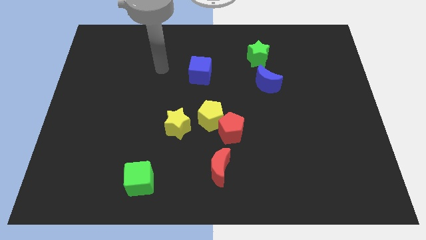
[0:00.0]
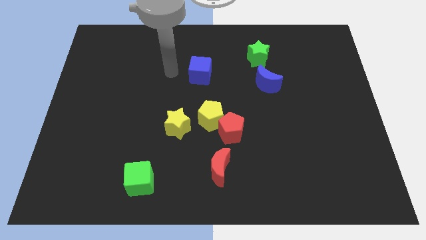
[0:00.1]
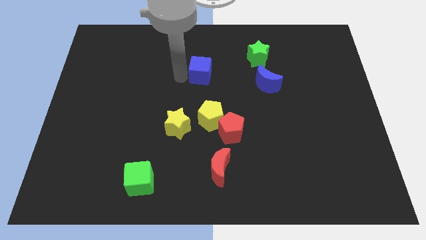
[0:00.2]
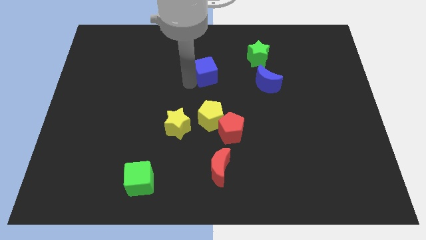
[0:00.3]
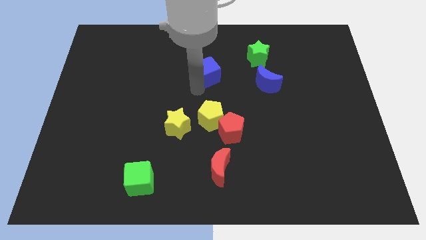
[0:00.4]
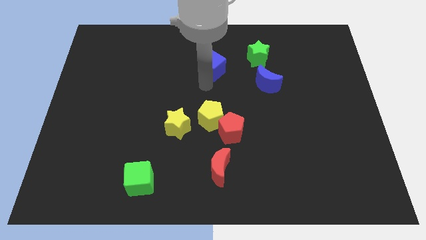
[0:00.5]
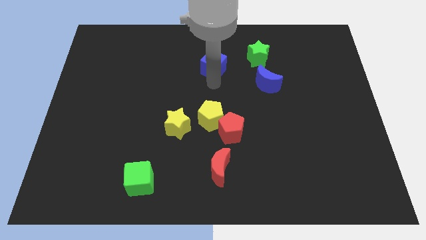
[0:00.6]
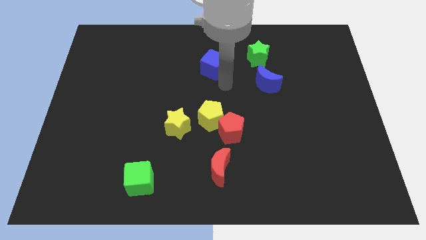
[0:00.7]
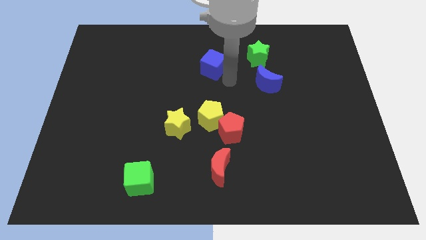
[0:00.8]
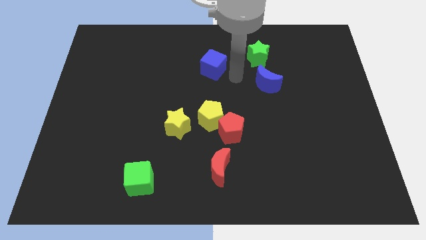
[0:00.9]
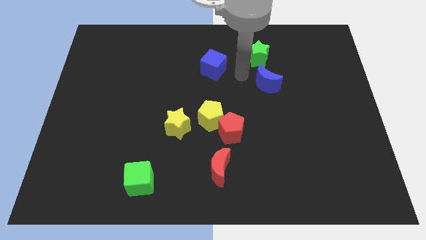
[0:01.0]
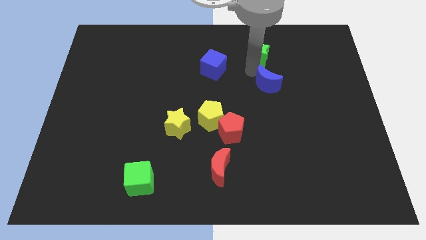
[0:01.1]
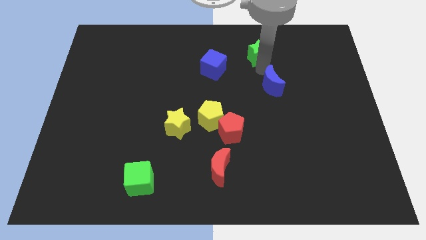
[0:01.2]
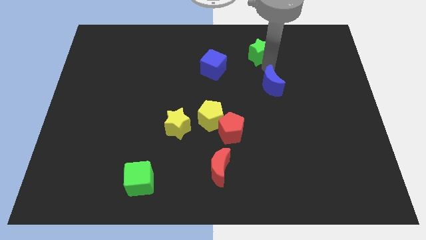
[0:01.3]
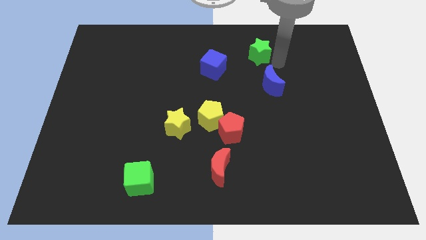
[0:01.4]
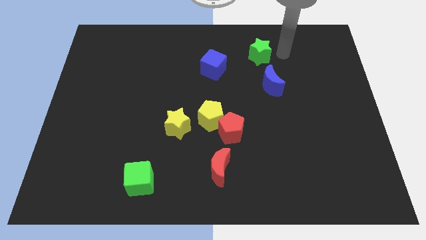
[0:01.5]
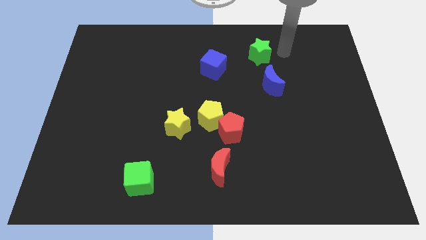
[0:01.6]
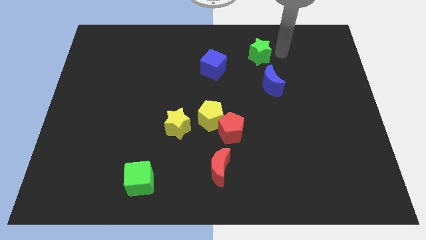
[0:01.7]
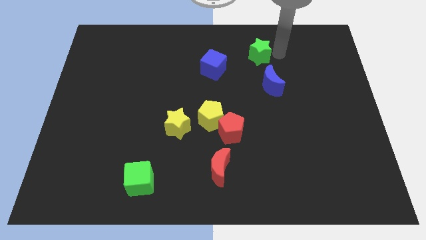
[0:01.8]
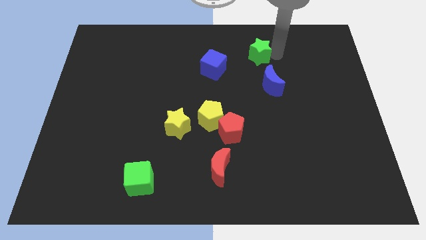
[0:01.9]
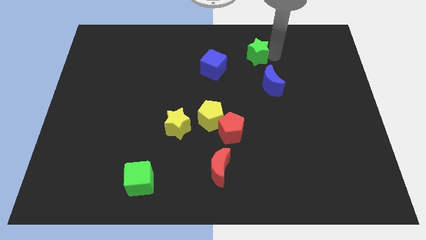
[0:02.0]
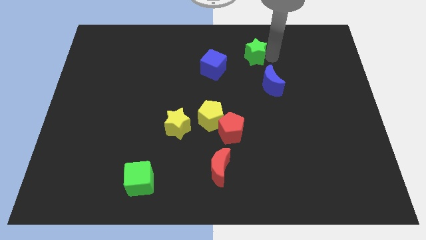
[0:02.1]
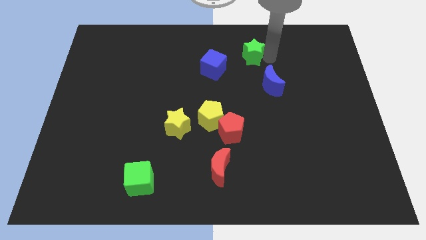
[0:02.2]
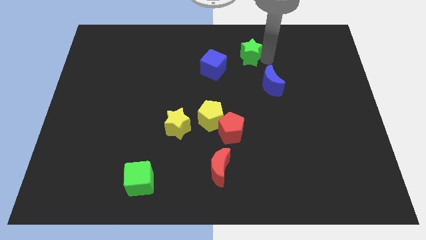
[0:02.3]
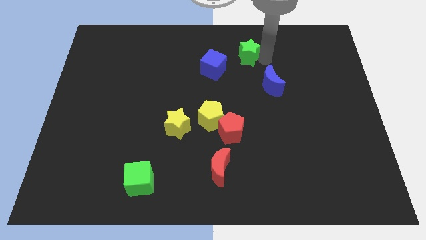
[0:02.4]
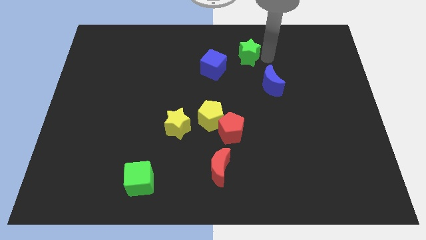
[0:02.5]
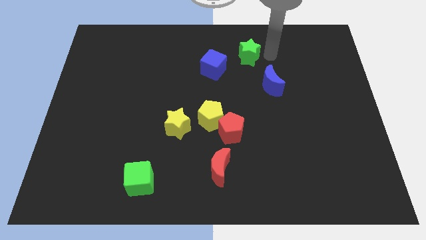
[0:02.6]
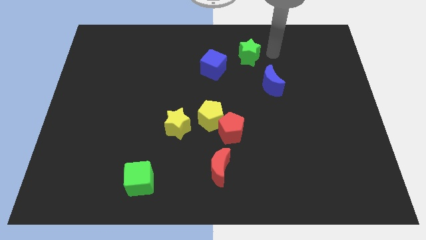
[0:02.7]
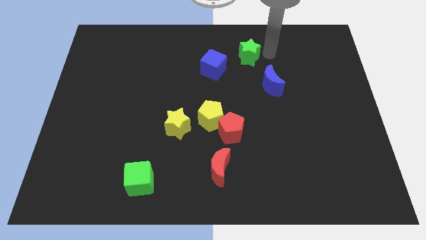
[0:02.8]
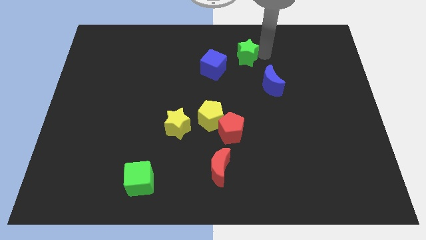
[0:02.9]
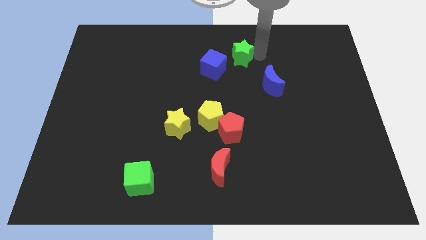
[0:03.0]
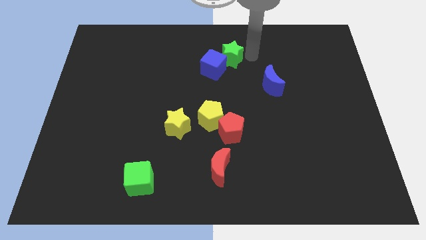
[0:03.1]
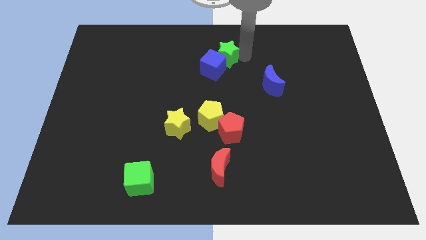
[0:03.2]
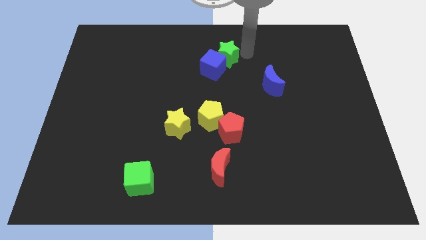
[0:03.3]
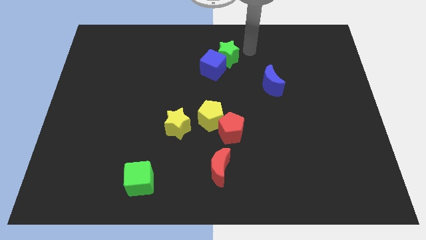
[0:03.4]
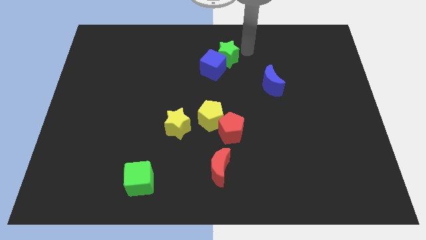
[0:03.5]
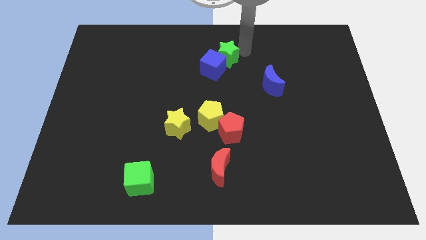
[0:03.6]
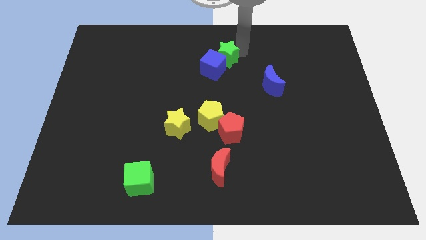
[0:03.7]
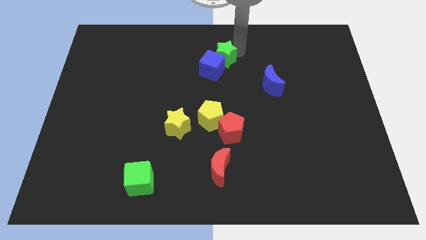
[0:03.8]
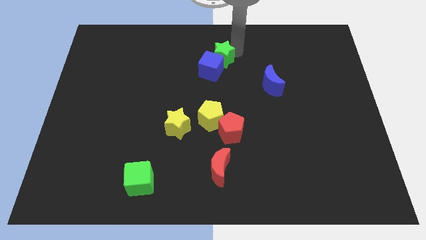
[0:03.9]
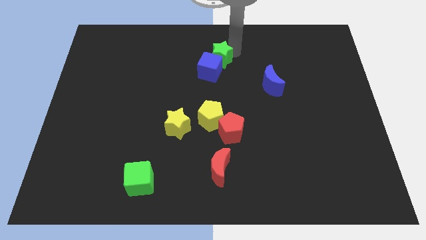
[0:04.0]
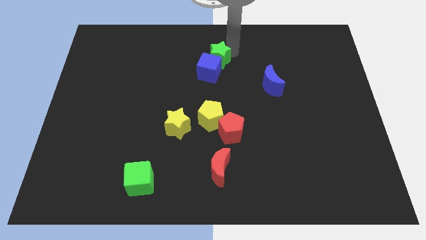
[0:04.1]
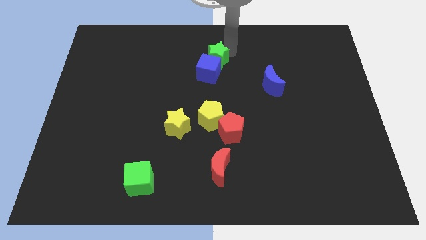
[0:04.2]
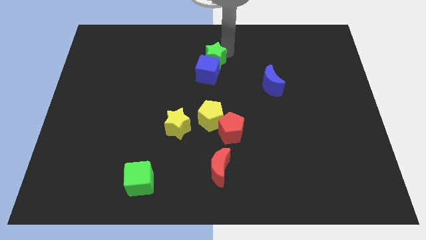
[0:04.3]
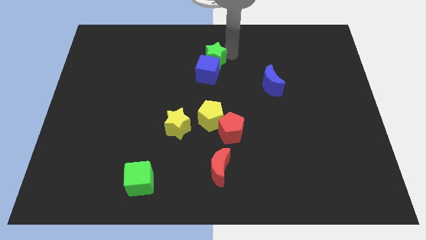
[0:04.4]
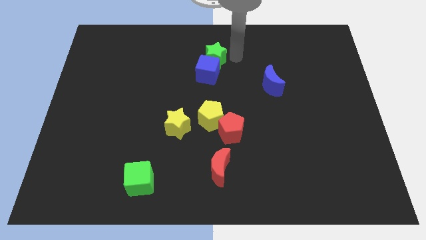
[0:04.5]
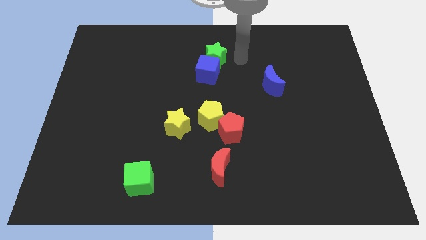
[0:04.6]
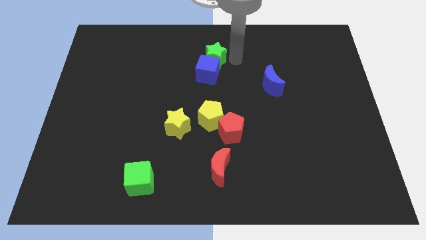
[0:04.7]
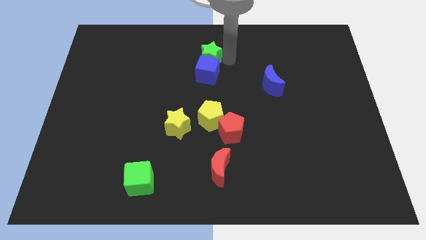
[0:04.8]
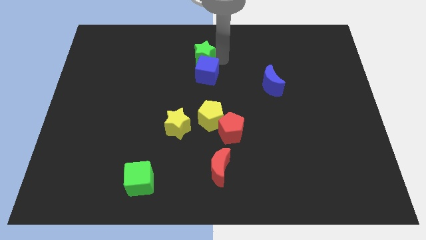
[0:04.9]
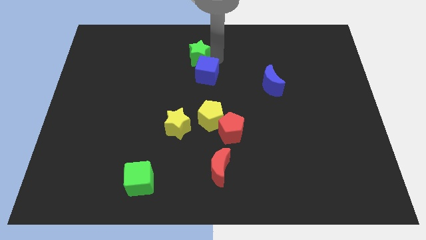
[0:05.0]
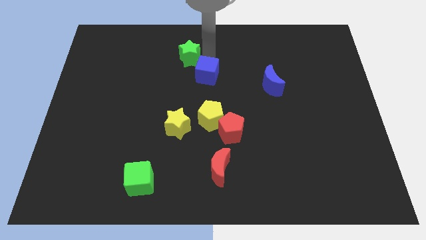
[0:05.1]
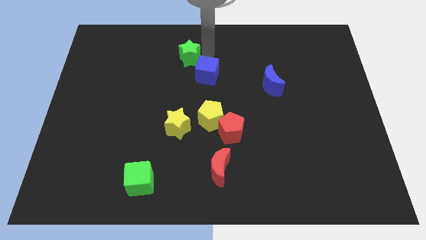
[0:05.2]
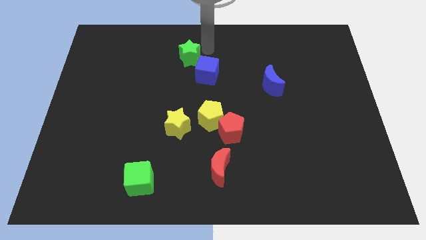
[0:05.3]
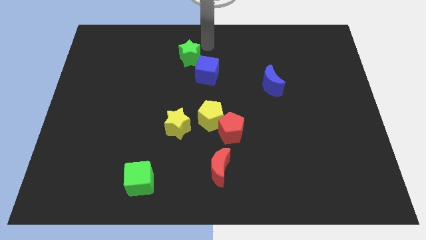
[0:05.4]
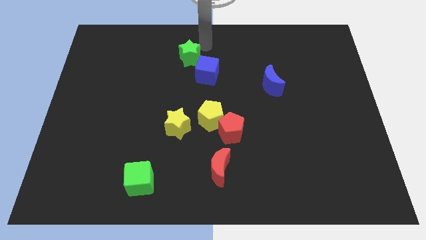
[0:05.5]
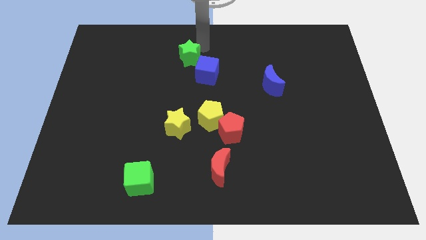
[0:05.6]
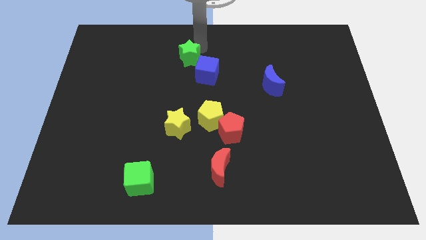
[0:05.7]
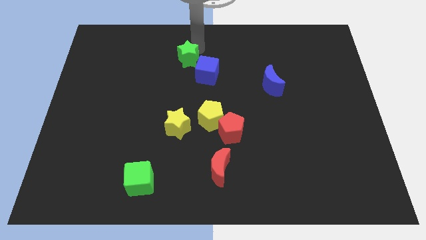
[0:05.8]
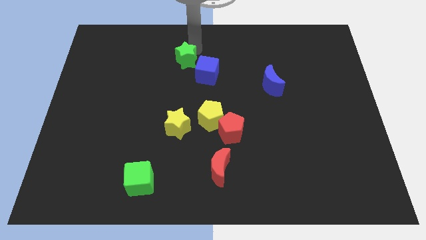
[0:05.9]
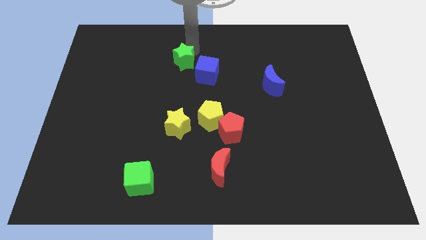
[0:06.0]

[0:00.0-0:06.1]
put the green star just left of the blue cube

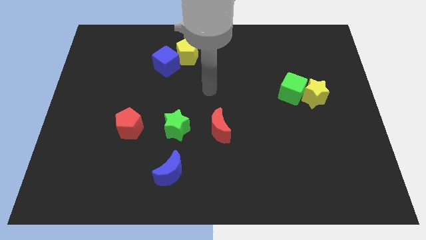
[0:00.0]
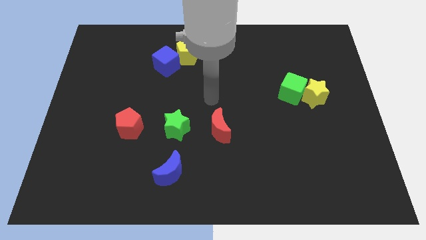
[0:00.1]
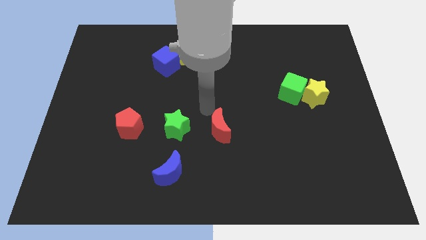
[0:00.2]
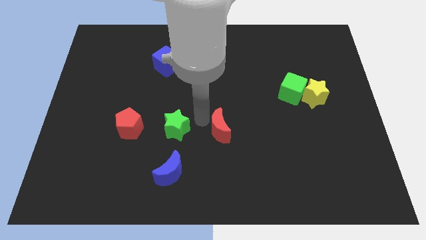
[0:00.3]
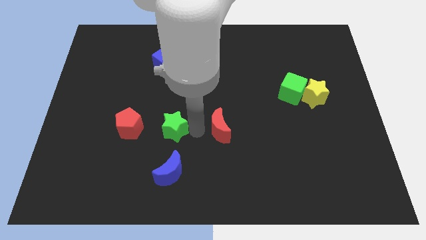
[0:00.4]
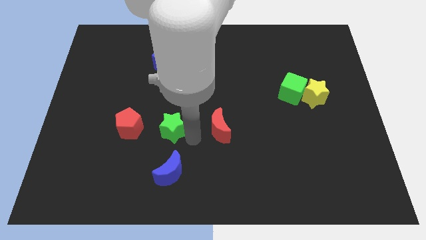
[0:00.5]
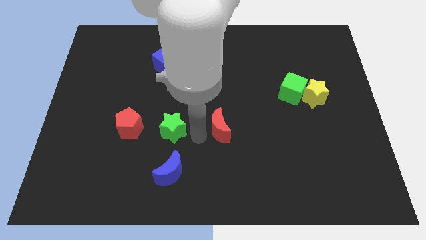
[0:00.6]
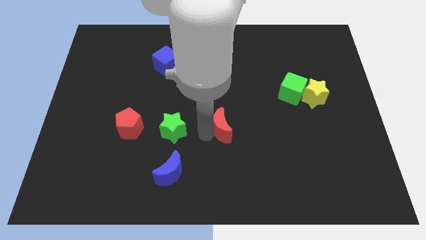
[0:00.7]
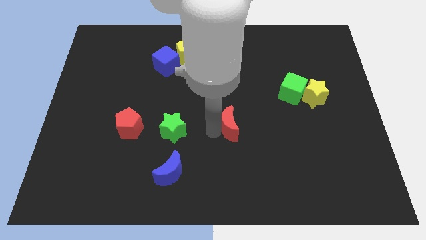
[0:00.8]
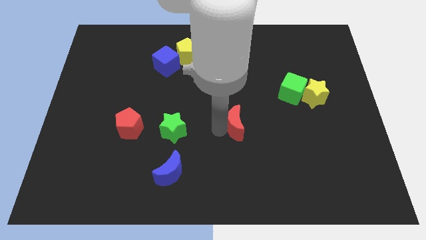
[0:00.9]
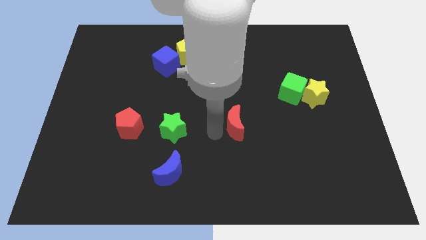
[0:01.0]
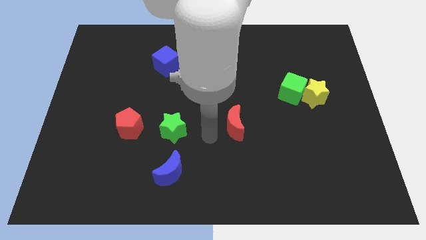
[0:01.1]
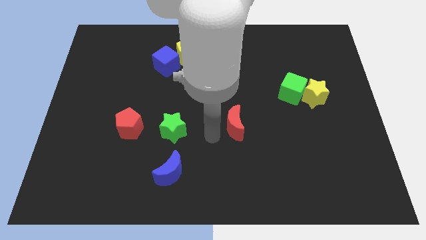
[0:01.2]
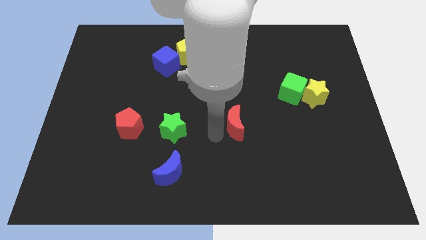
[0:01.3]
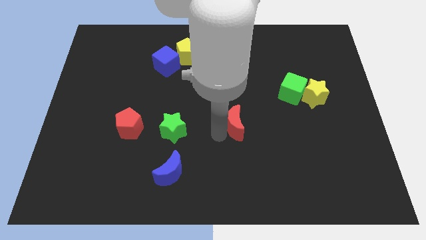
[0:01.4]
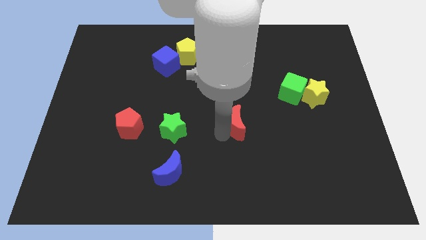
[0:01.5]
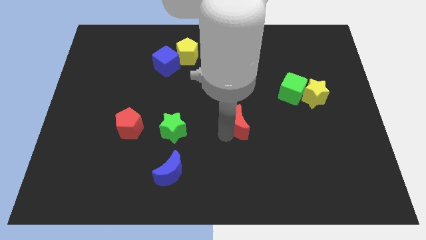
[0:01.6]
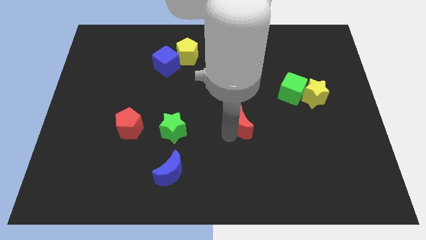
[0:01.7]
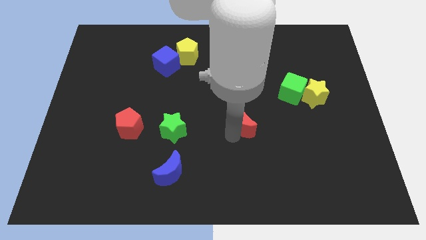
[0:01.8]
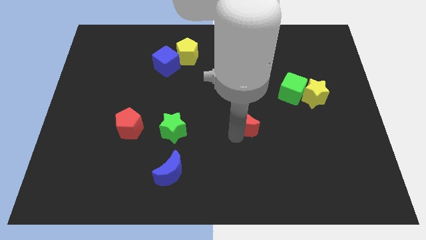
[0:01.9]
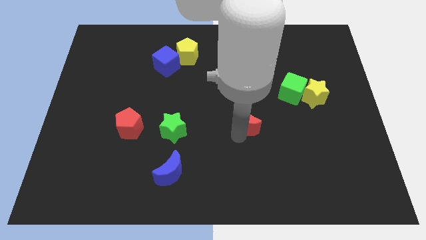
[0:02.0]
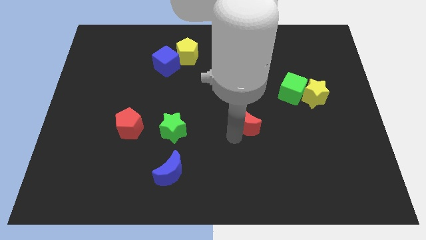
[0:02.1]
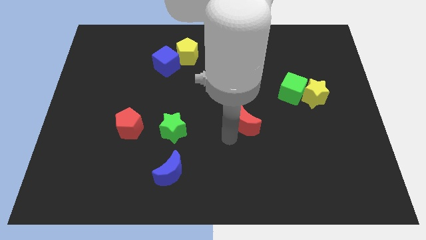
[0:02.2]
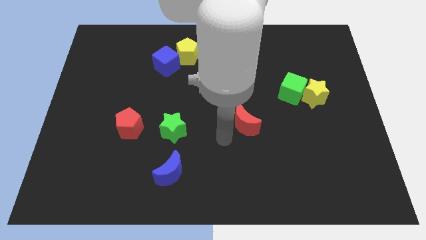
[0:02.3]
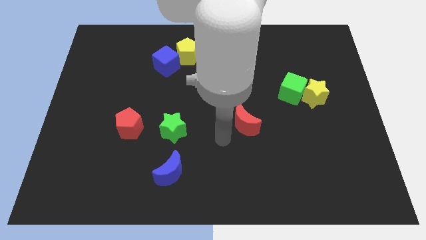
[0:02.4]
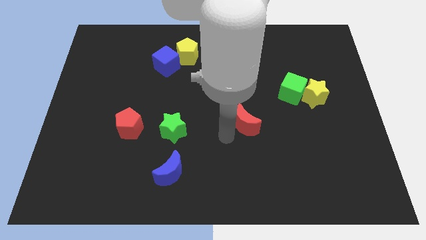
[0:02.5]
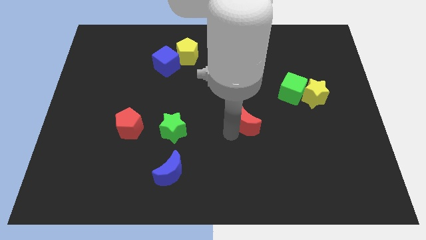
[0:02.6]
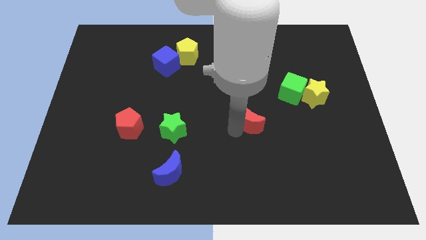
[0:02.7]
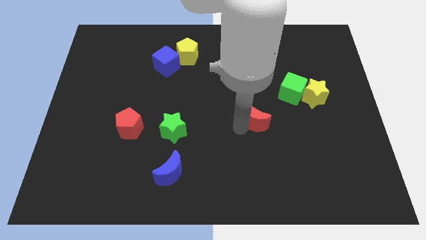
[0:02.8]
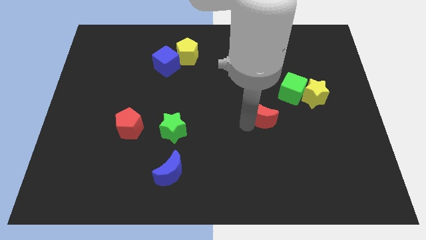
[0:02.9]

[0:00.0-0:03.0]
push the red moon to the bottom left of the green cube
